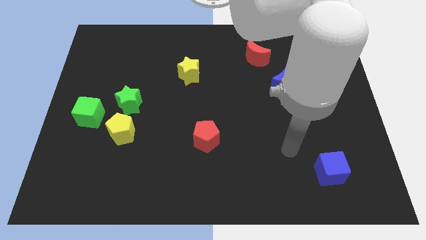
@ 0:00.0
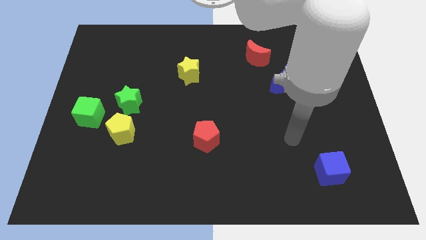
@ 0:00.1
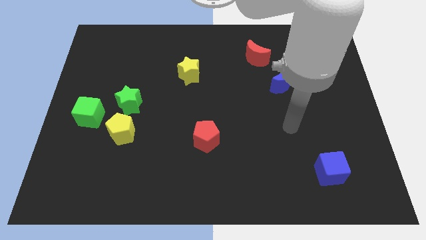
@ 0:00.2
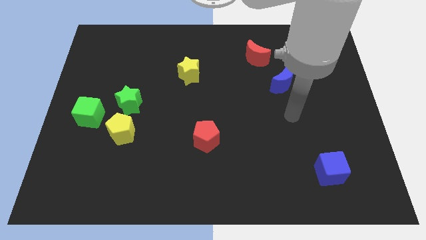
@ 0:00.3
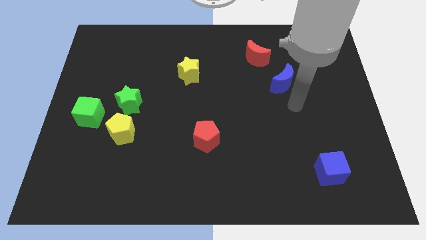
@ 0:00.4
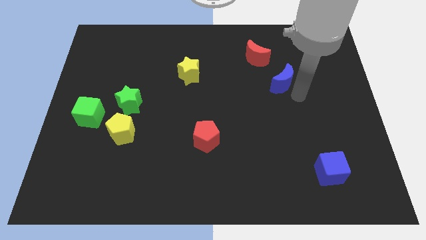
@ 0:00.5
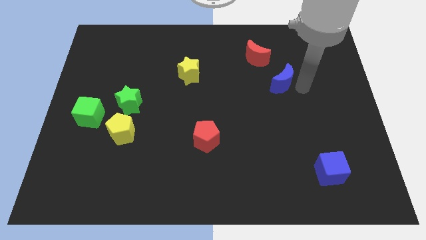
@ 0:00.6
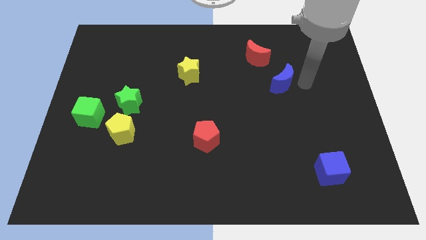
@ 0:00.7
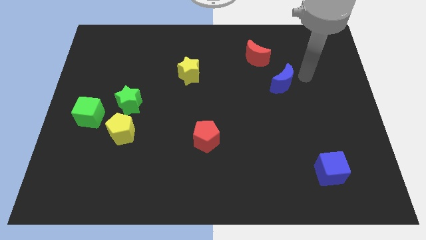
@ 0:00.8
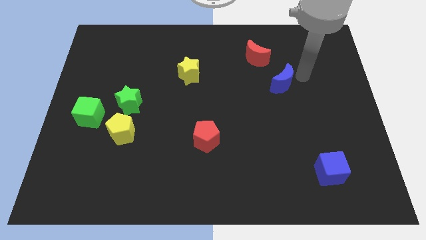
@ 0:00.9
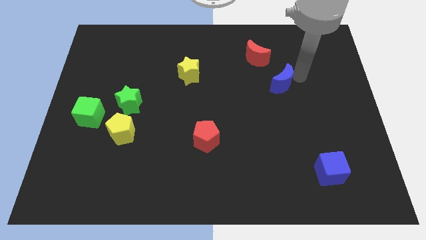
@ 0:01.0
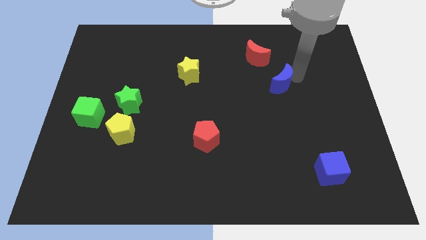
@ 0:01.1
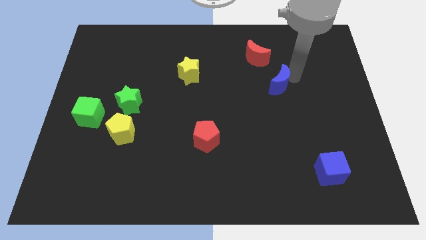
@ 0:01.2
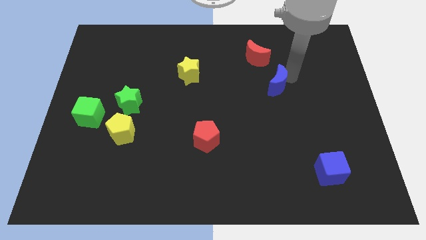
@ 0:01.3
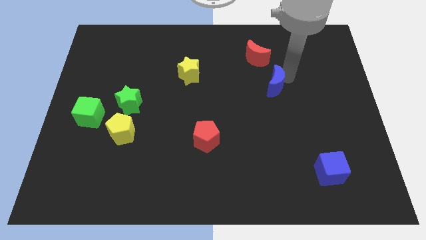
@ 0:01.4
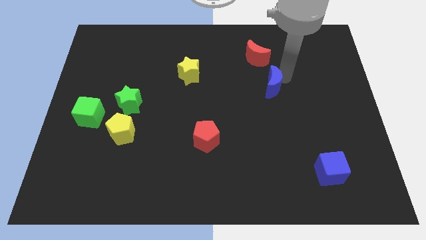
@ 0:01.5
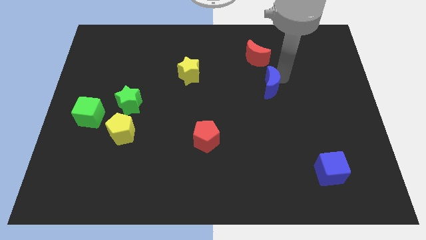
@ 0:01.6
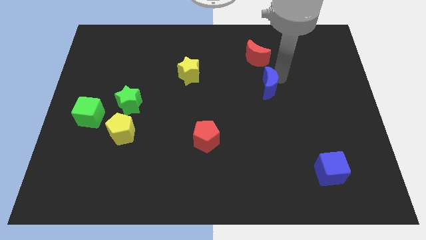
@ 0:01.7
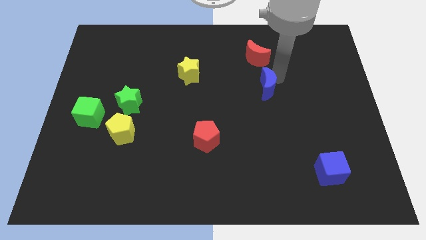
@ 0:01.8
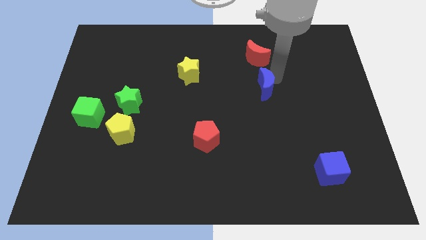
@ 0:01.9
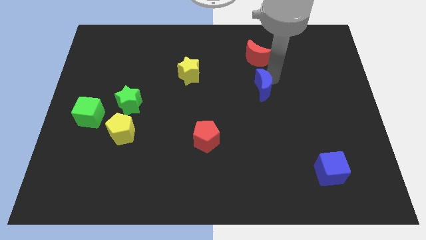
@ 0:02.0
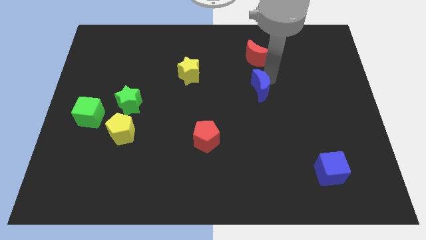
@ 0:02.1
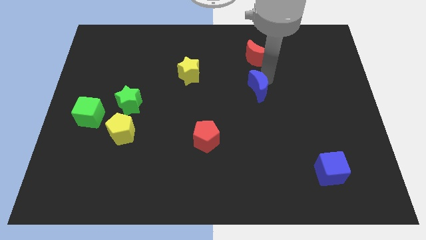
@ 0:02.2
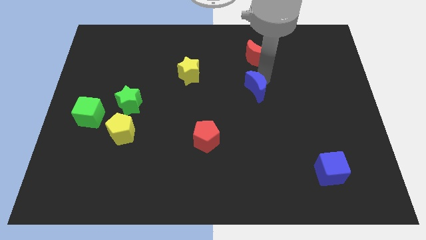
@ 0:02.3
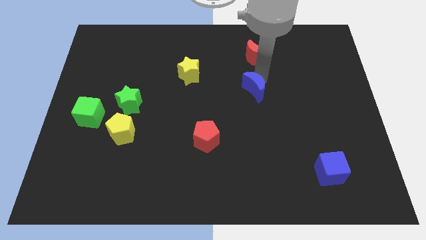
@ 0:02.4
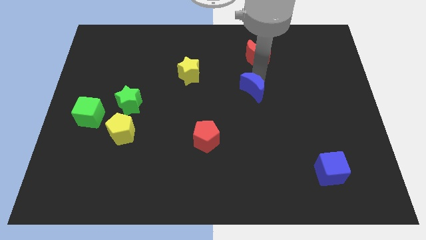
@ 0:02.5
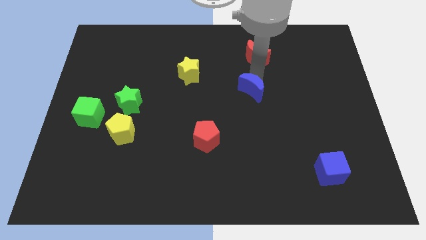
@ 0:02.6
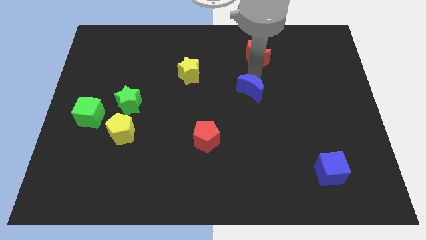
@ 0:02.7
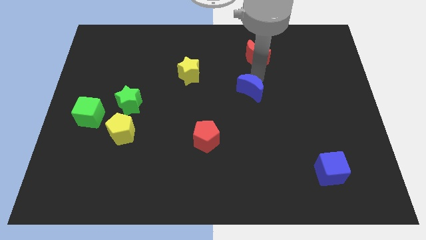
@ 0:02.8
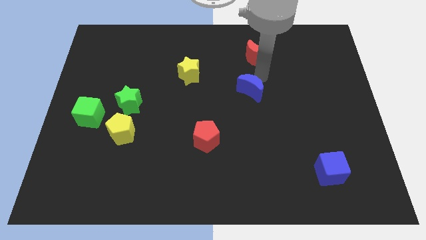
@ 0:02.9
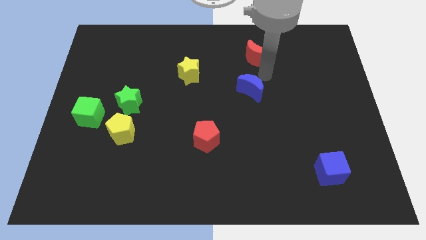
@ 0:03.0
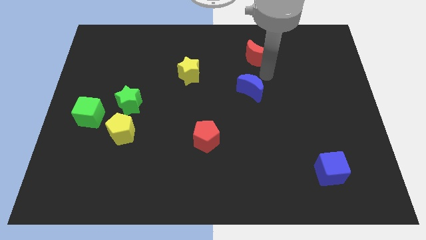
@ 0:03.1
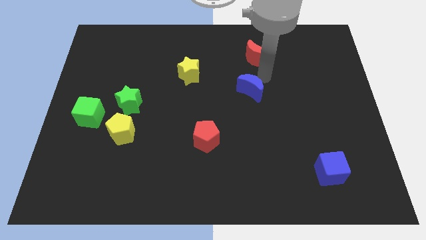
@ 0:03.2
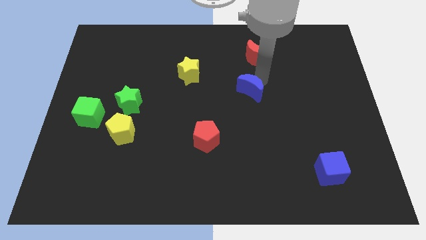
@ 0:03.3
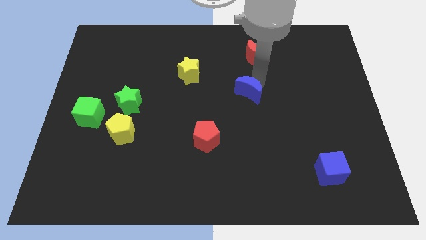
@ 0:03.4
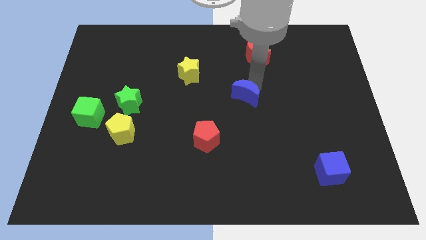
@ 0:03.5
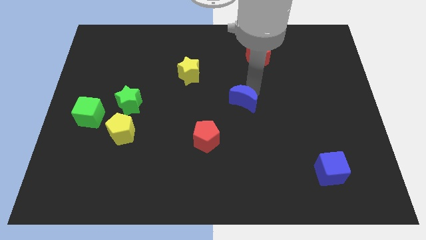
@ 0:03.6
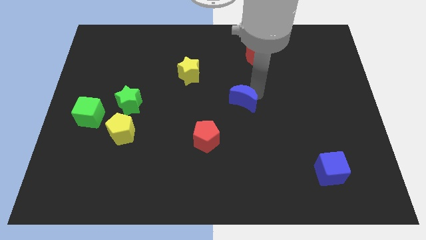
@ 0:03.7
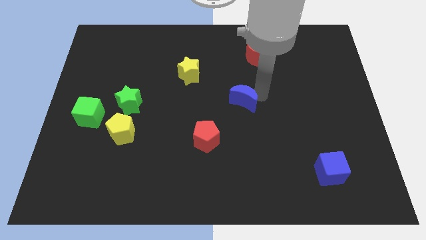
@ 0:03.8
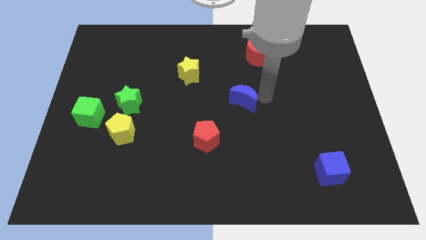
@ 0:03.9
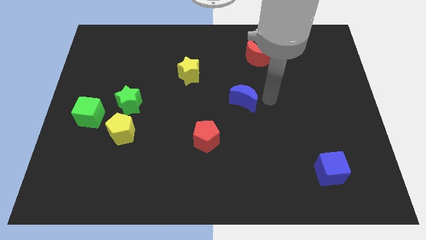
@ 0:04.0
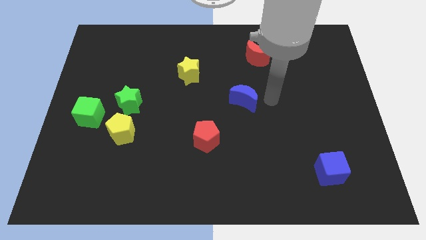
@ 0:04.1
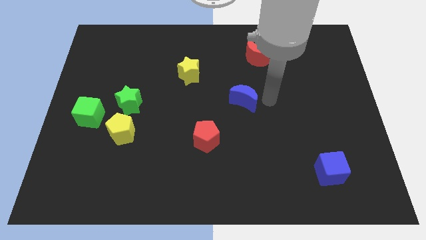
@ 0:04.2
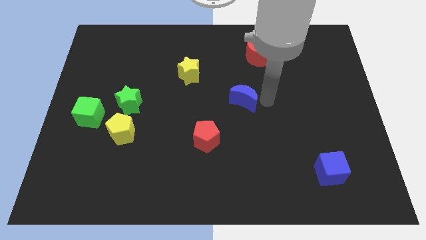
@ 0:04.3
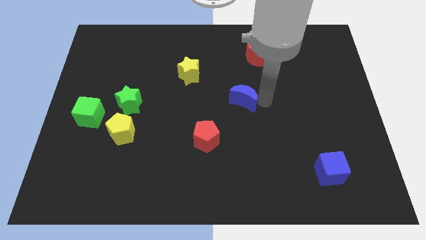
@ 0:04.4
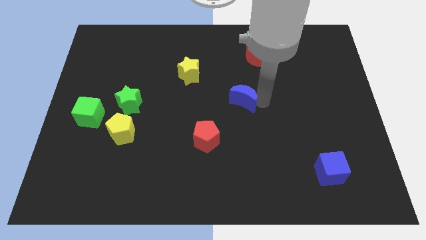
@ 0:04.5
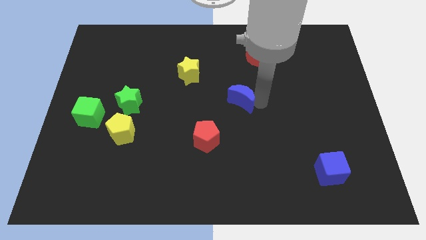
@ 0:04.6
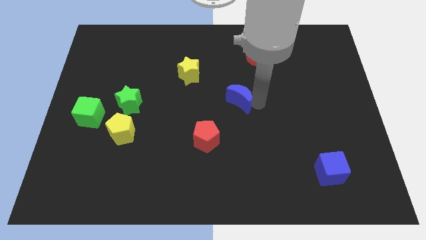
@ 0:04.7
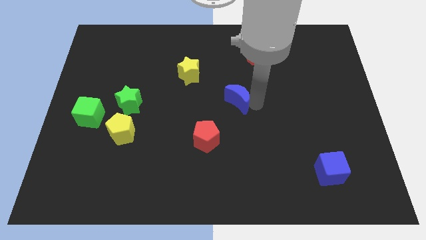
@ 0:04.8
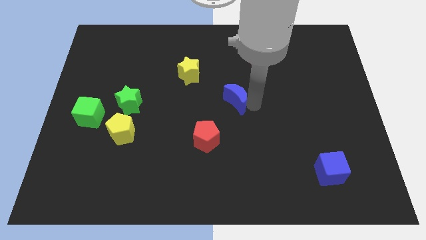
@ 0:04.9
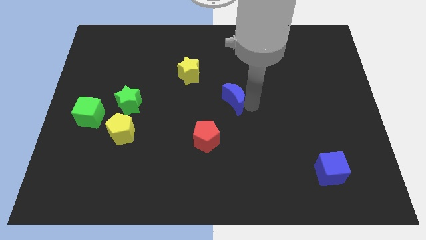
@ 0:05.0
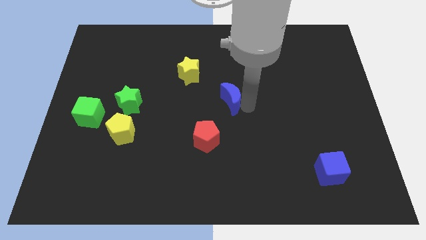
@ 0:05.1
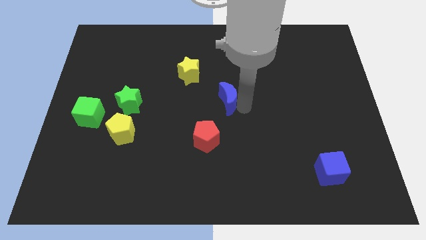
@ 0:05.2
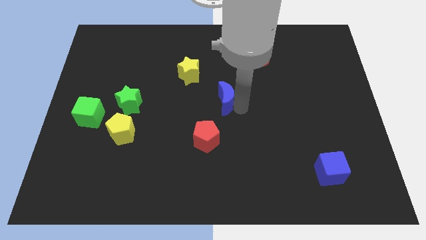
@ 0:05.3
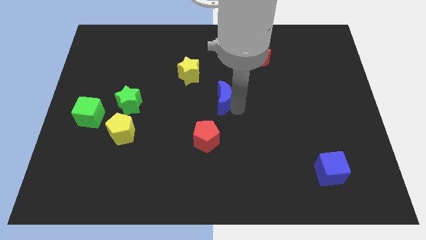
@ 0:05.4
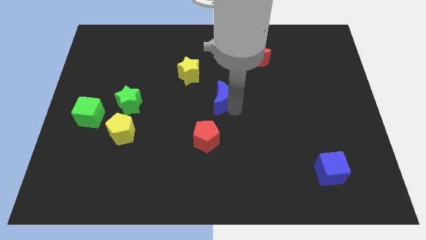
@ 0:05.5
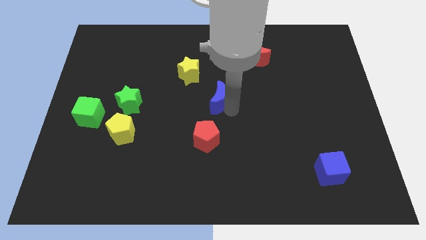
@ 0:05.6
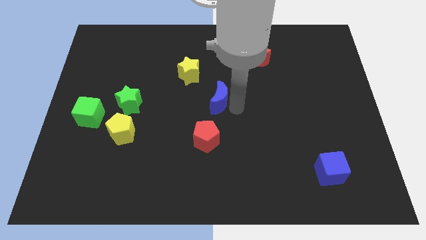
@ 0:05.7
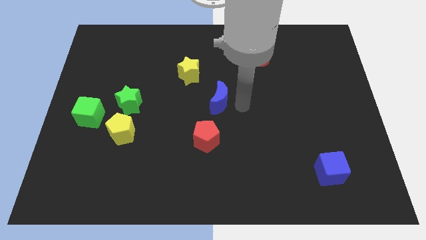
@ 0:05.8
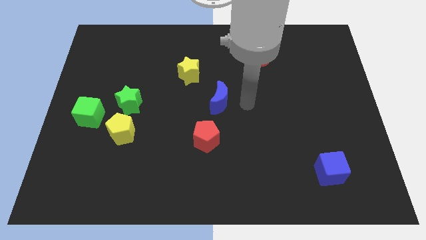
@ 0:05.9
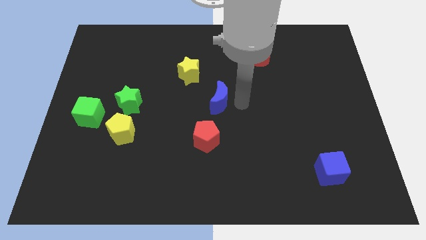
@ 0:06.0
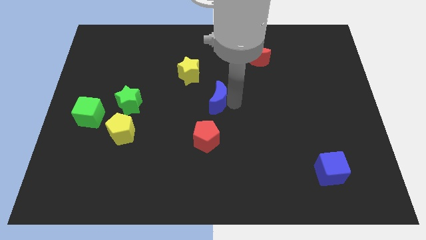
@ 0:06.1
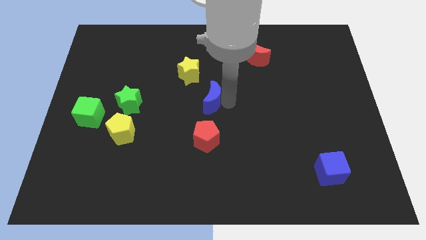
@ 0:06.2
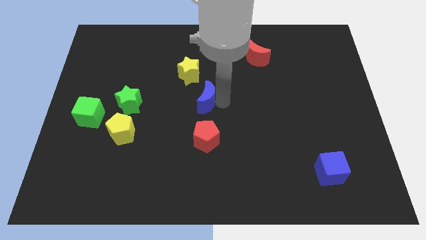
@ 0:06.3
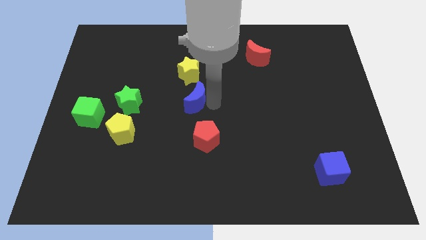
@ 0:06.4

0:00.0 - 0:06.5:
push the blue moon left

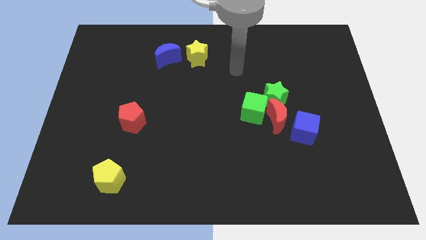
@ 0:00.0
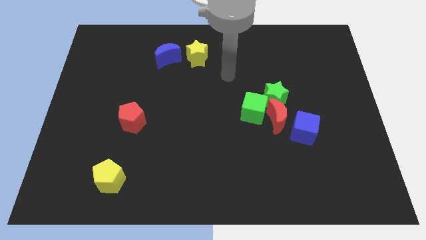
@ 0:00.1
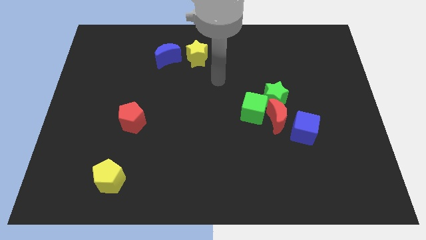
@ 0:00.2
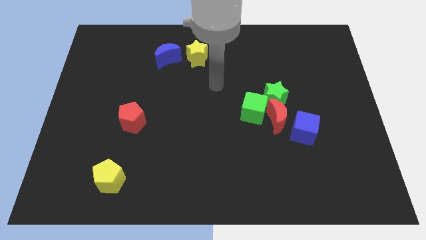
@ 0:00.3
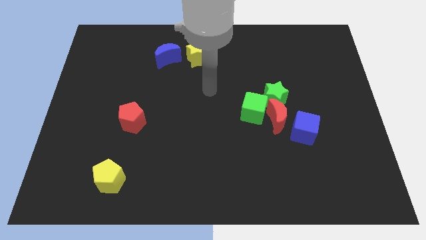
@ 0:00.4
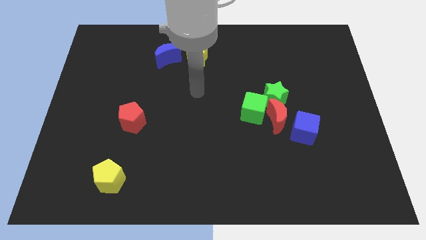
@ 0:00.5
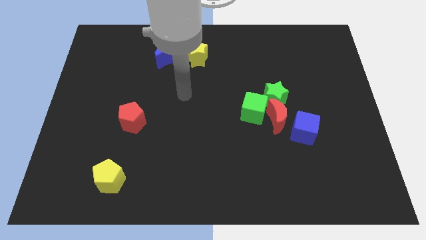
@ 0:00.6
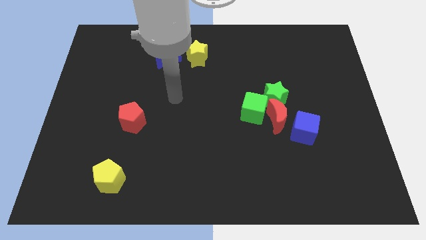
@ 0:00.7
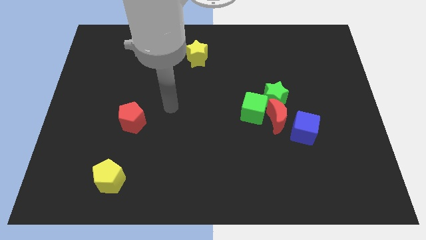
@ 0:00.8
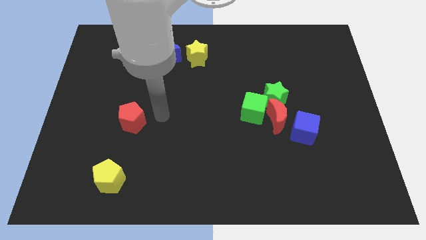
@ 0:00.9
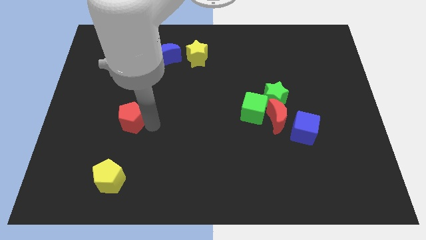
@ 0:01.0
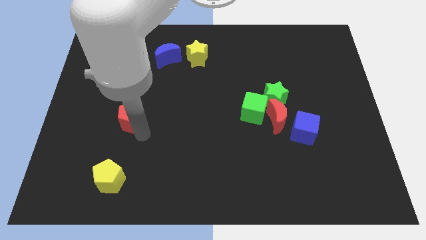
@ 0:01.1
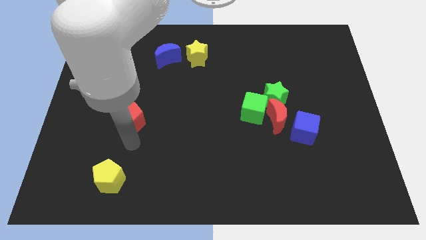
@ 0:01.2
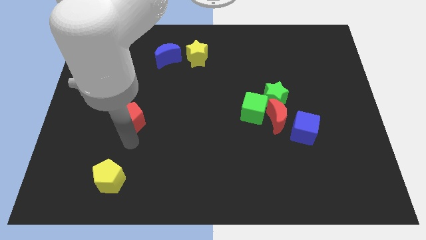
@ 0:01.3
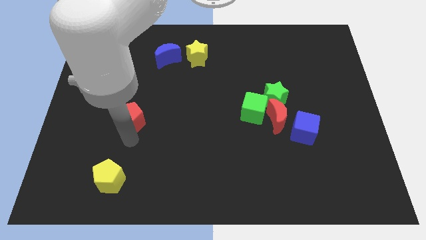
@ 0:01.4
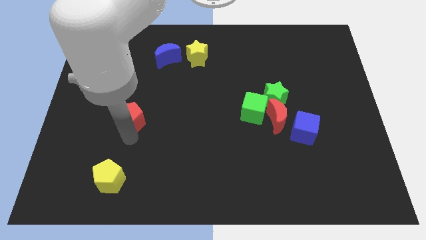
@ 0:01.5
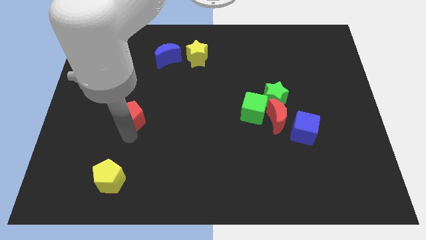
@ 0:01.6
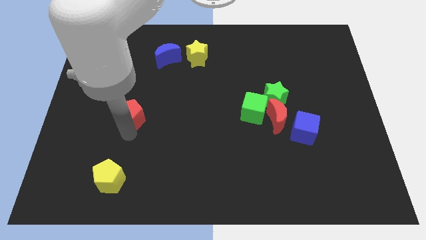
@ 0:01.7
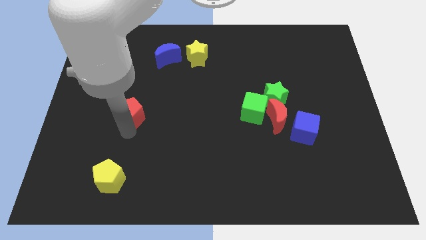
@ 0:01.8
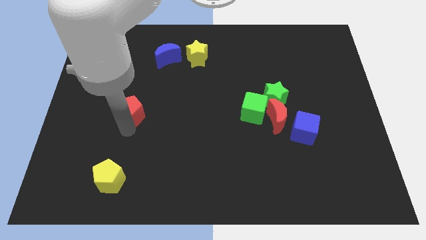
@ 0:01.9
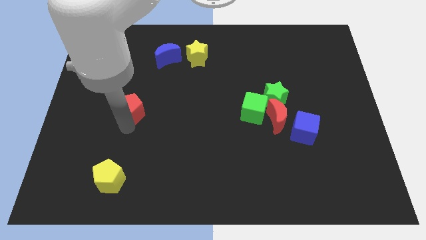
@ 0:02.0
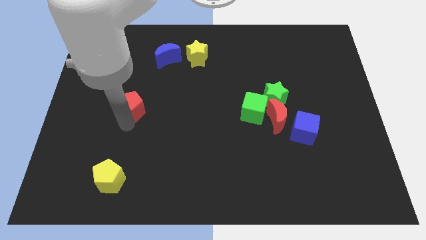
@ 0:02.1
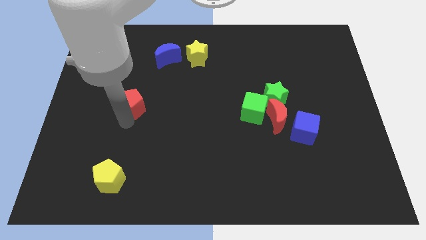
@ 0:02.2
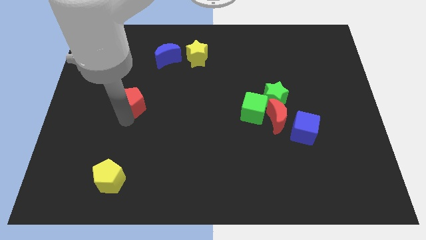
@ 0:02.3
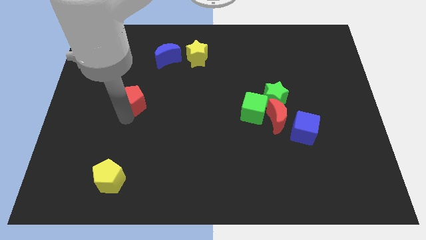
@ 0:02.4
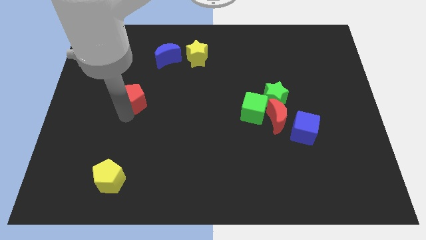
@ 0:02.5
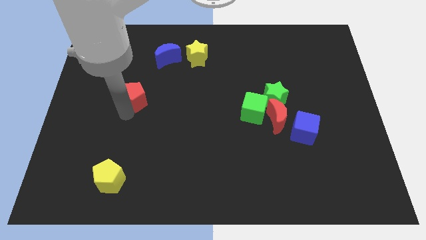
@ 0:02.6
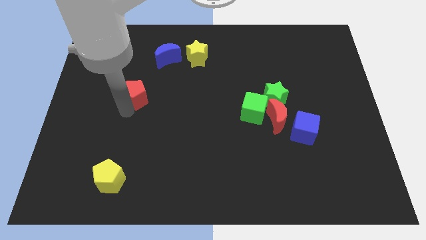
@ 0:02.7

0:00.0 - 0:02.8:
push the red pentagon upwards a little
